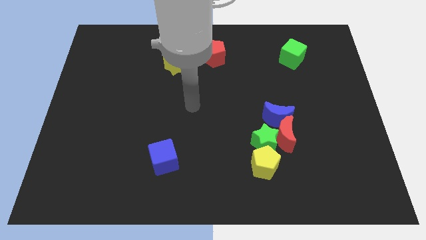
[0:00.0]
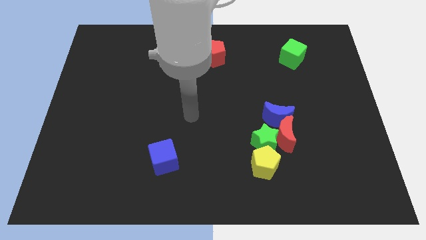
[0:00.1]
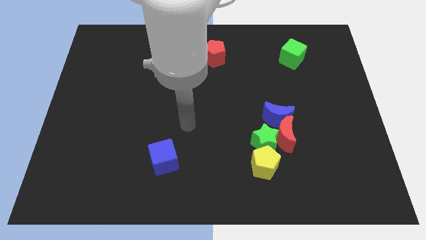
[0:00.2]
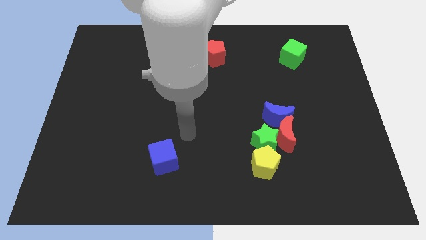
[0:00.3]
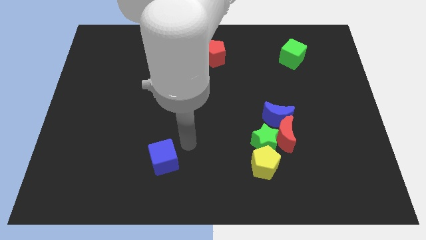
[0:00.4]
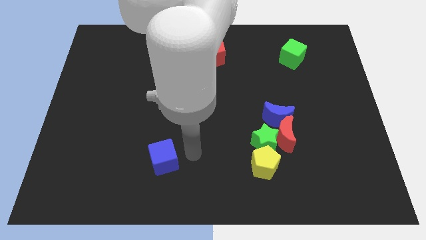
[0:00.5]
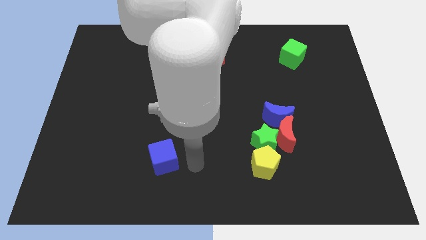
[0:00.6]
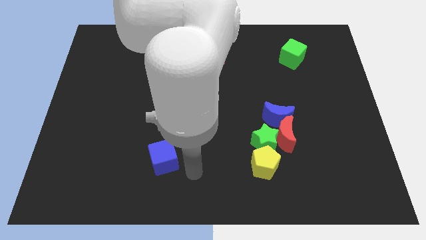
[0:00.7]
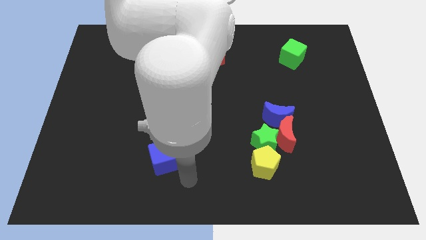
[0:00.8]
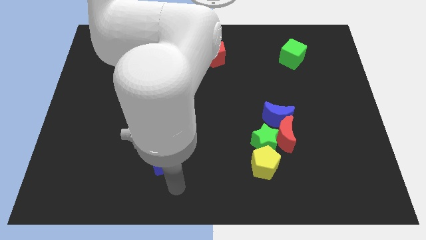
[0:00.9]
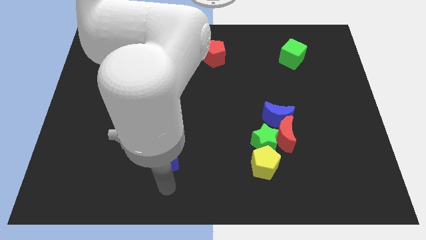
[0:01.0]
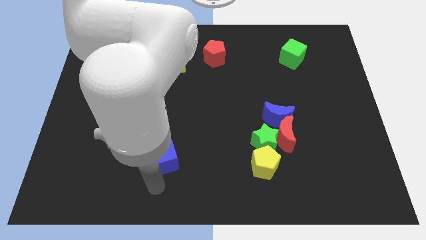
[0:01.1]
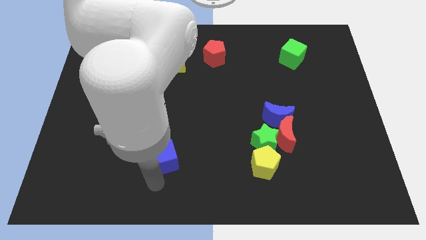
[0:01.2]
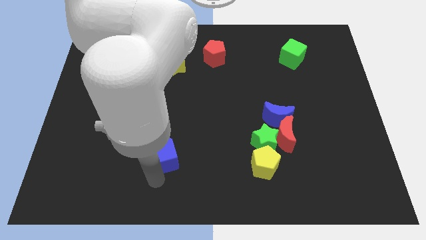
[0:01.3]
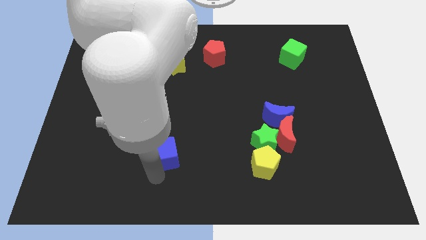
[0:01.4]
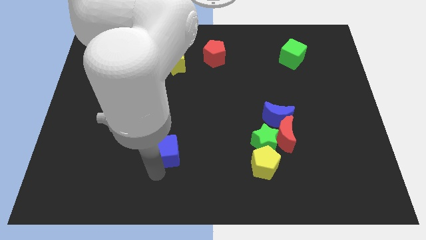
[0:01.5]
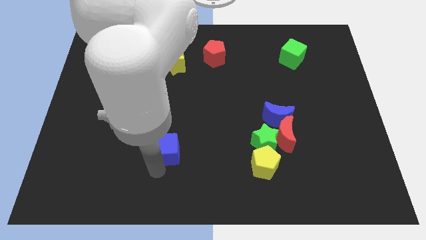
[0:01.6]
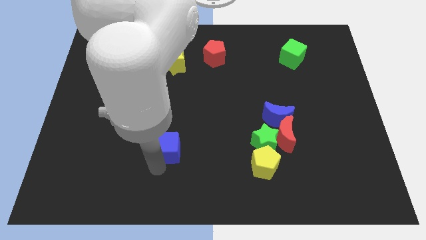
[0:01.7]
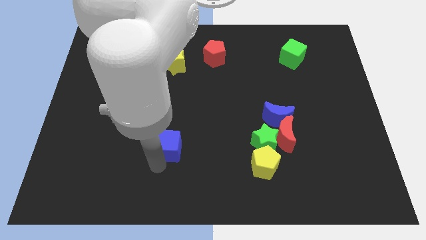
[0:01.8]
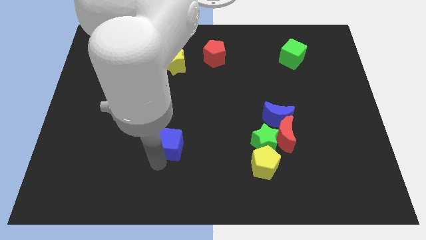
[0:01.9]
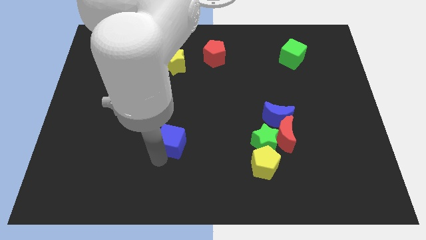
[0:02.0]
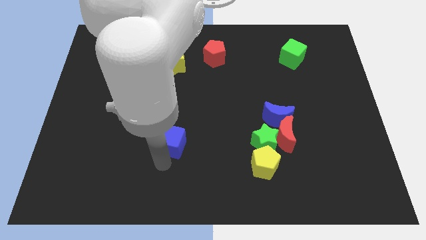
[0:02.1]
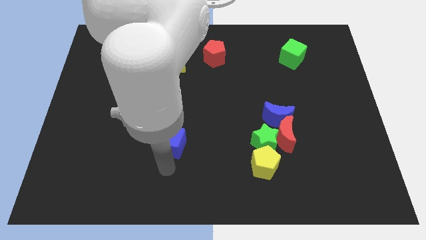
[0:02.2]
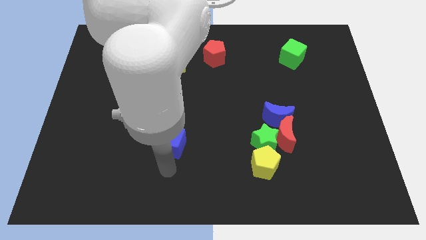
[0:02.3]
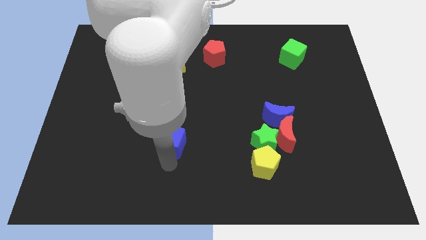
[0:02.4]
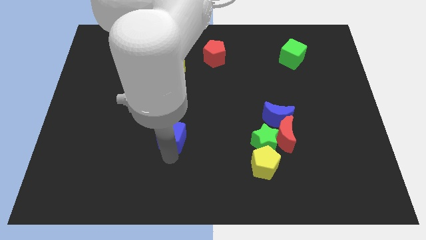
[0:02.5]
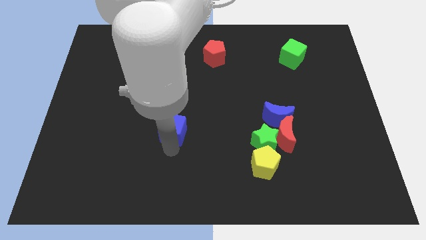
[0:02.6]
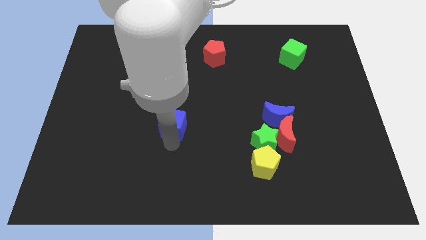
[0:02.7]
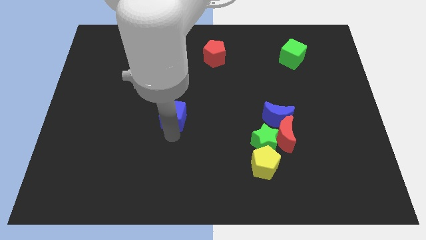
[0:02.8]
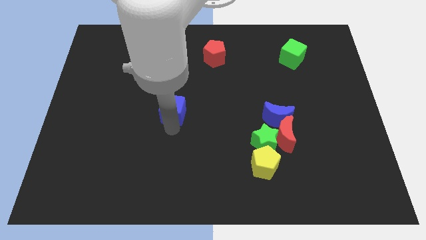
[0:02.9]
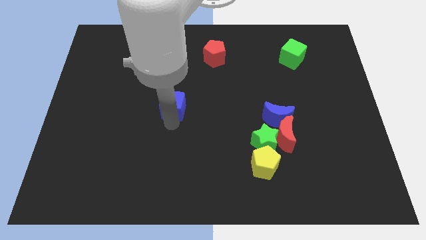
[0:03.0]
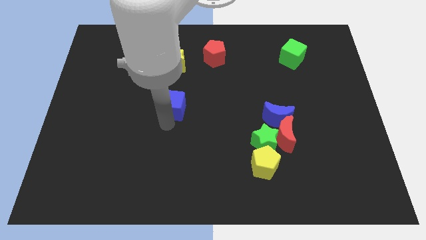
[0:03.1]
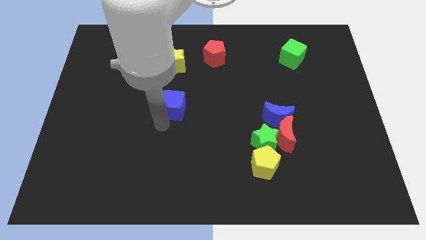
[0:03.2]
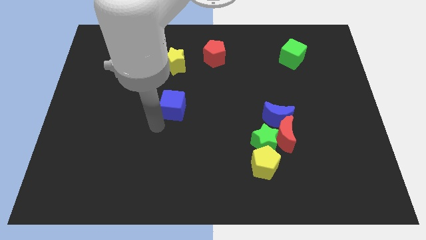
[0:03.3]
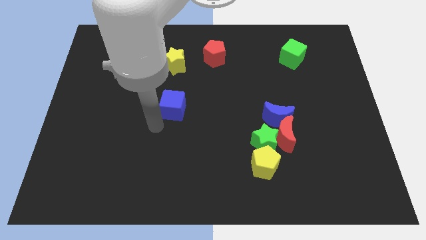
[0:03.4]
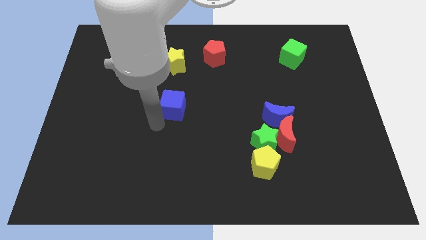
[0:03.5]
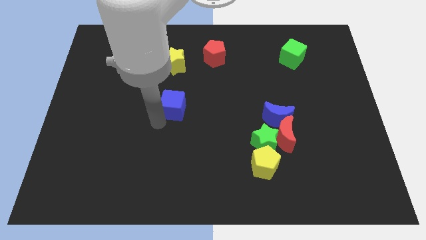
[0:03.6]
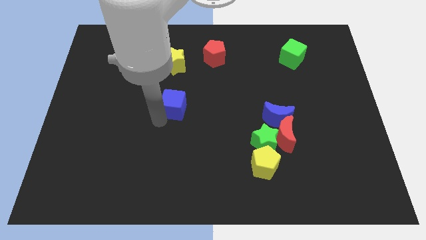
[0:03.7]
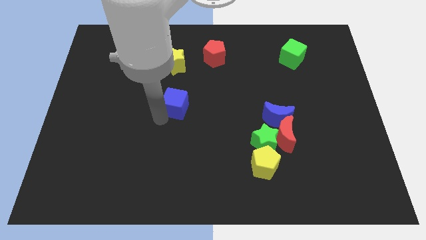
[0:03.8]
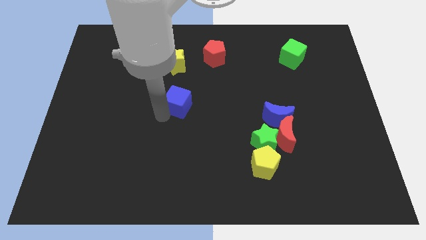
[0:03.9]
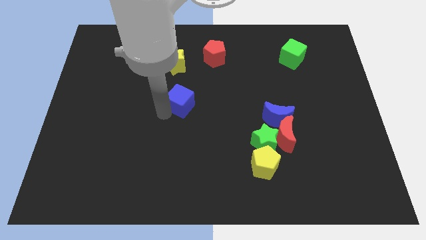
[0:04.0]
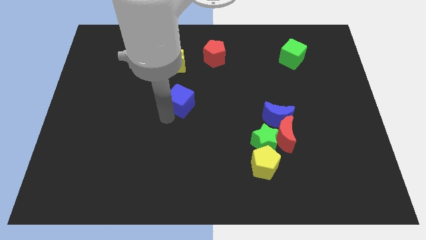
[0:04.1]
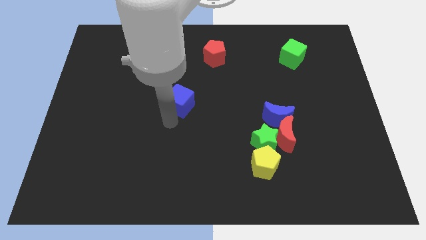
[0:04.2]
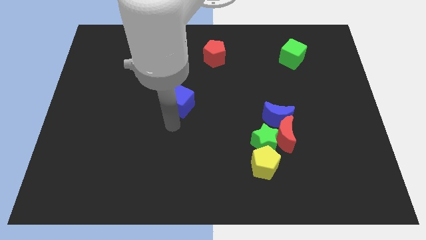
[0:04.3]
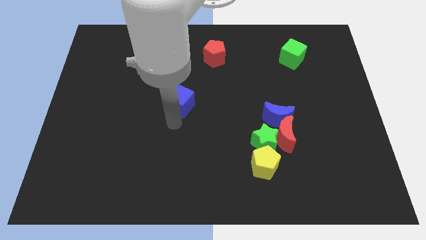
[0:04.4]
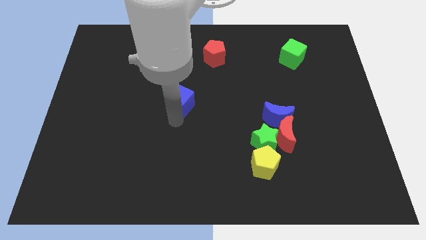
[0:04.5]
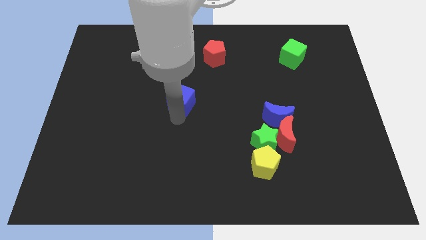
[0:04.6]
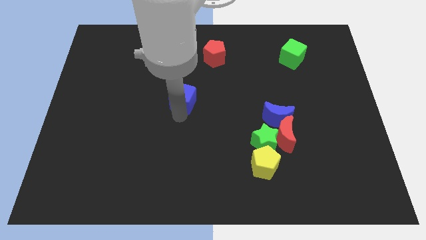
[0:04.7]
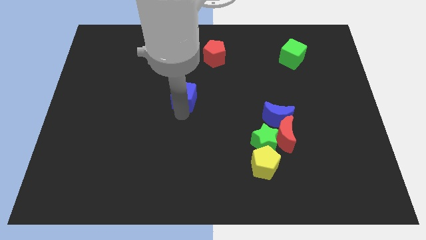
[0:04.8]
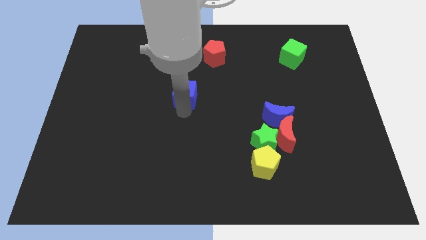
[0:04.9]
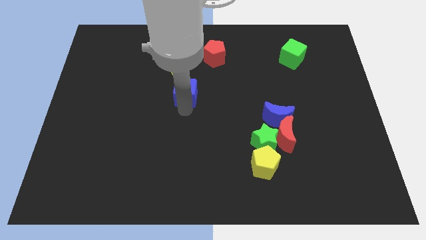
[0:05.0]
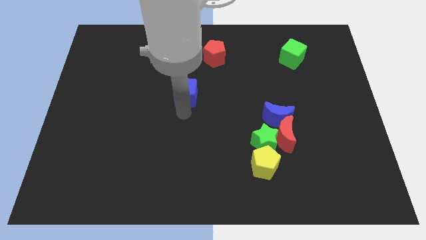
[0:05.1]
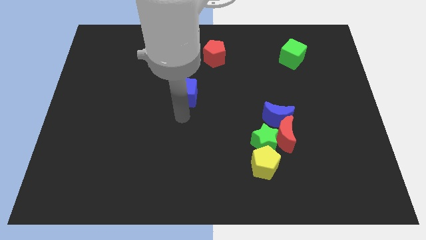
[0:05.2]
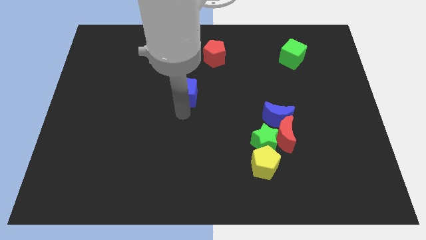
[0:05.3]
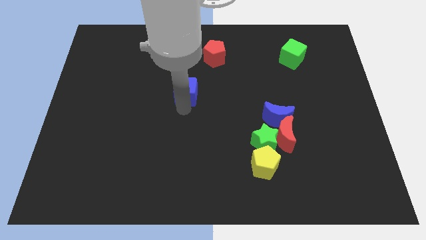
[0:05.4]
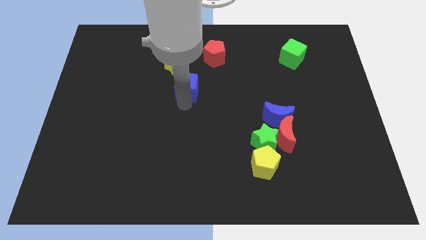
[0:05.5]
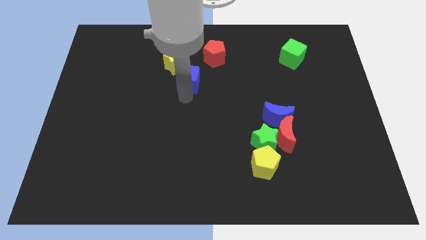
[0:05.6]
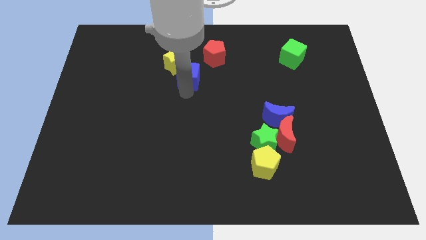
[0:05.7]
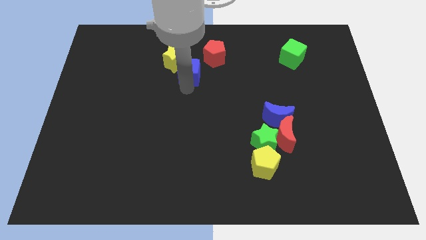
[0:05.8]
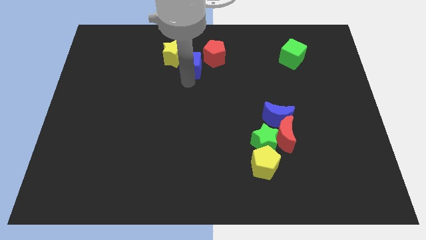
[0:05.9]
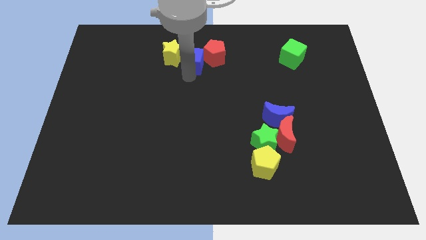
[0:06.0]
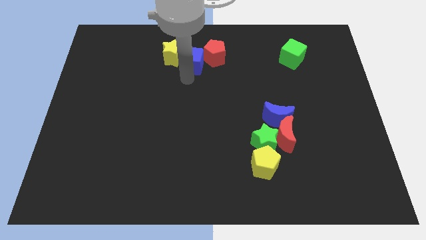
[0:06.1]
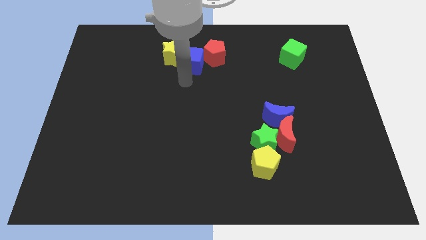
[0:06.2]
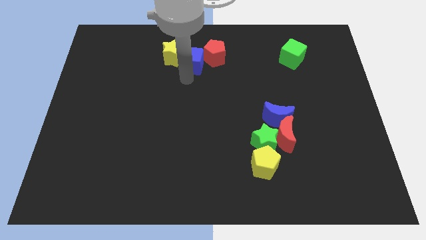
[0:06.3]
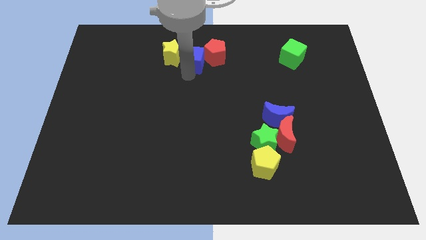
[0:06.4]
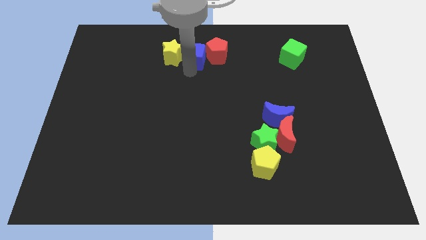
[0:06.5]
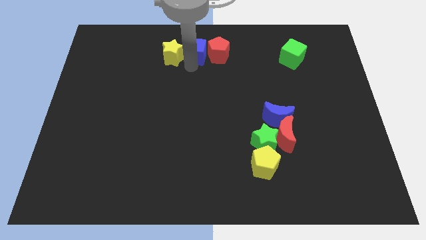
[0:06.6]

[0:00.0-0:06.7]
slide the blue cube to the top
